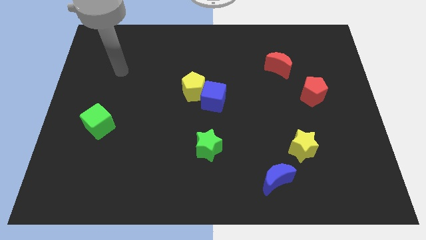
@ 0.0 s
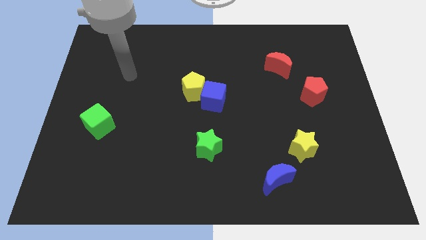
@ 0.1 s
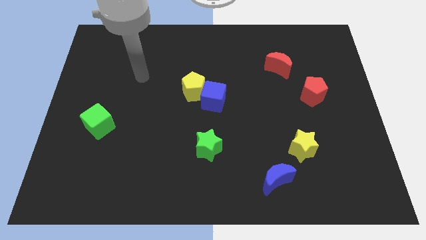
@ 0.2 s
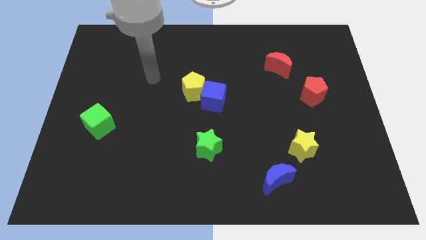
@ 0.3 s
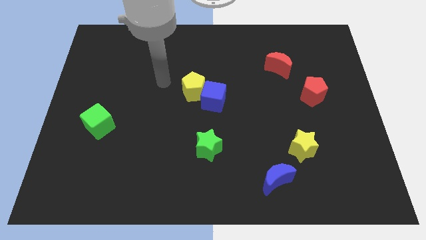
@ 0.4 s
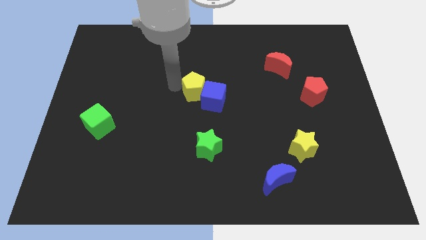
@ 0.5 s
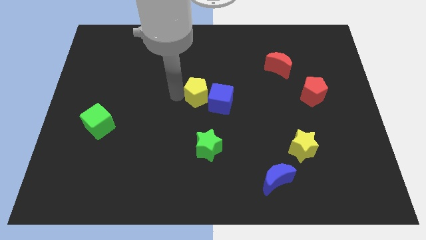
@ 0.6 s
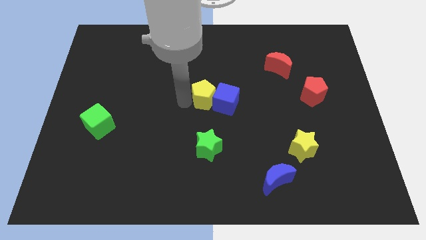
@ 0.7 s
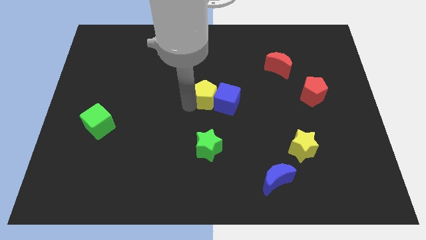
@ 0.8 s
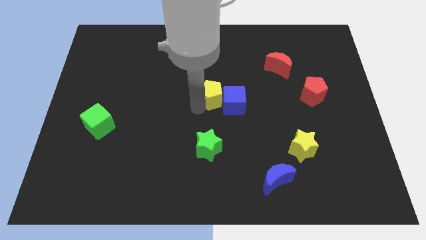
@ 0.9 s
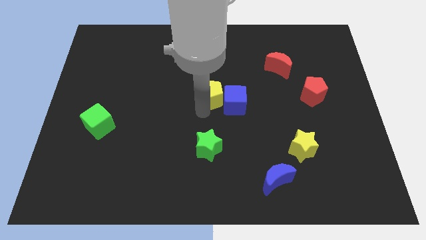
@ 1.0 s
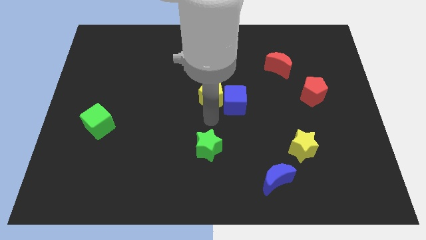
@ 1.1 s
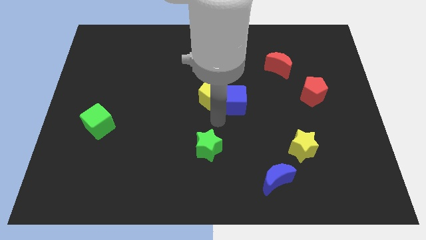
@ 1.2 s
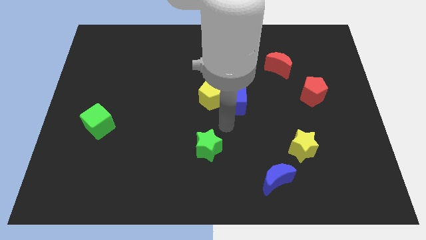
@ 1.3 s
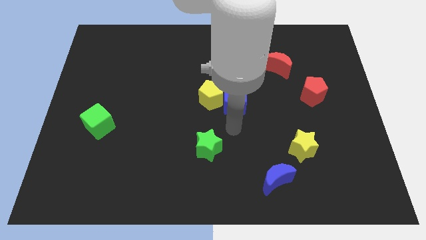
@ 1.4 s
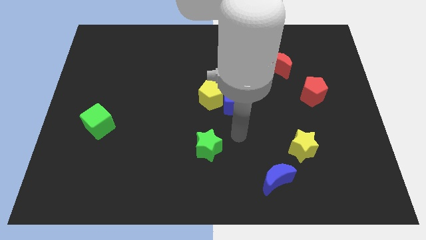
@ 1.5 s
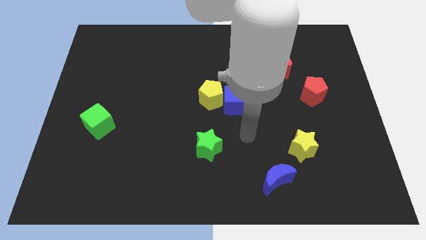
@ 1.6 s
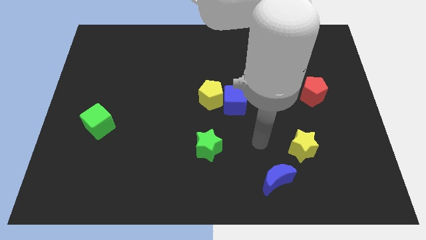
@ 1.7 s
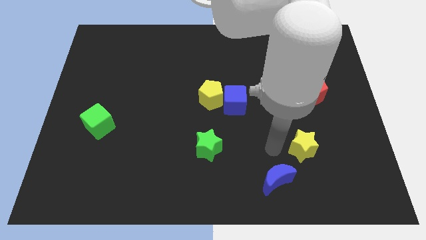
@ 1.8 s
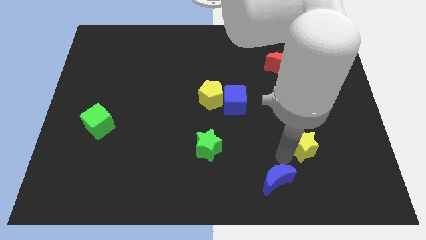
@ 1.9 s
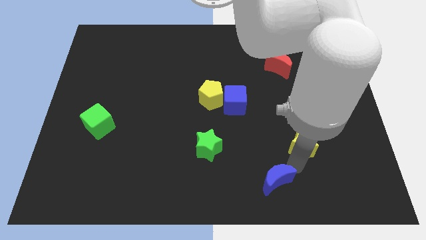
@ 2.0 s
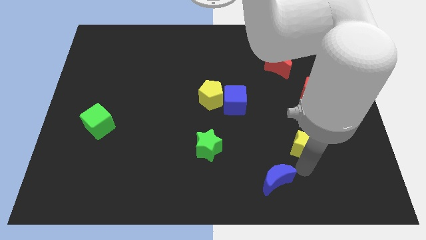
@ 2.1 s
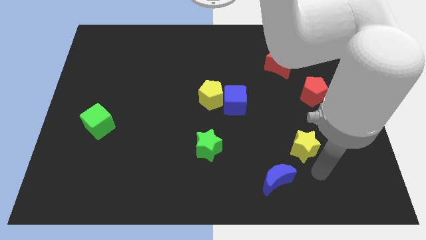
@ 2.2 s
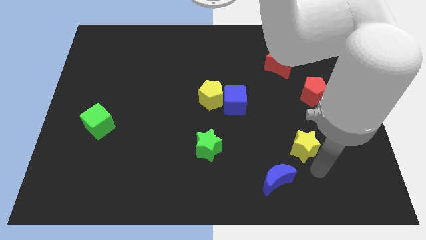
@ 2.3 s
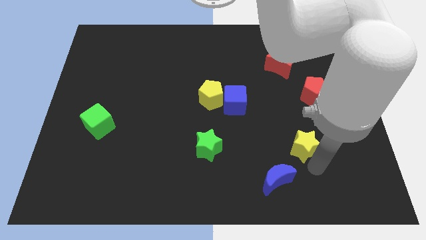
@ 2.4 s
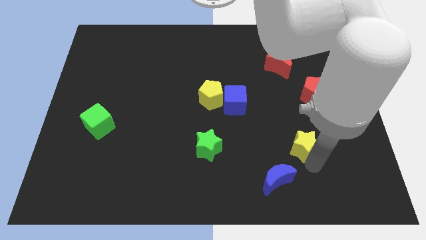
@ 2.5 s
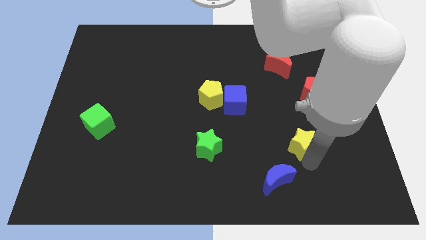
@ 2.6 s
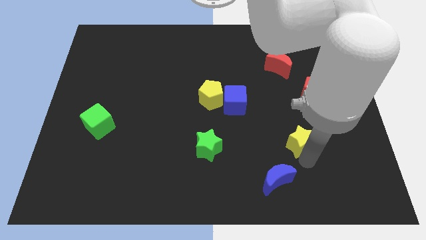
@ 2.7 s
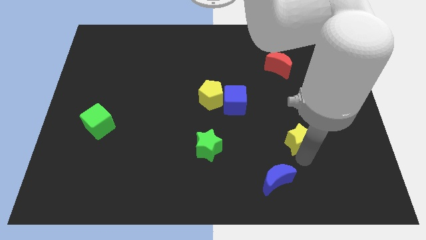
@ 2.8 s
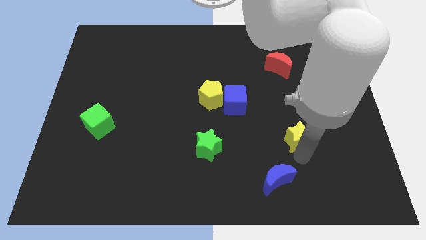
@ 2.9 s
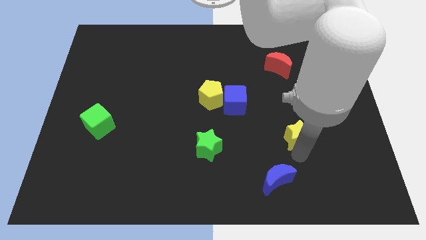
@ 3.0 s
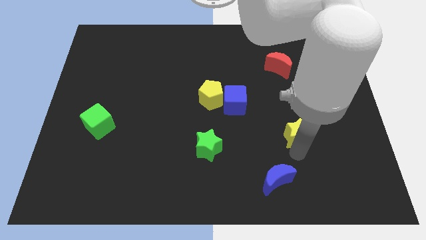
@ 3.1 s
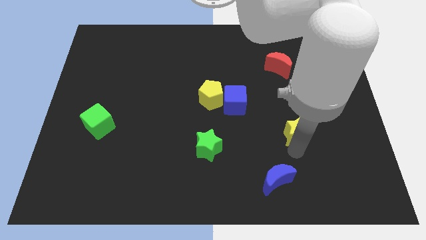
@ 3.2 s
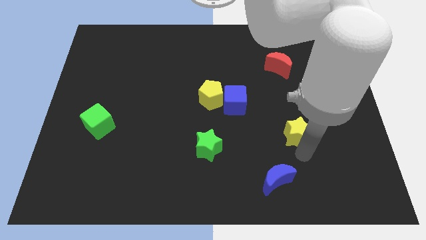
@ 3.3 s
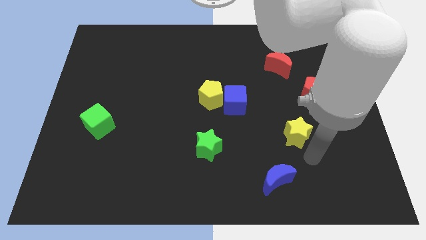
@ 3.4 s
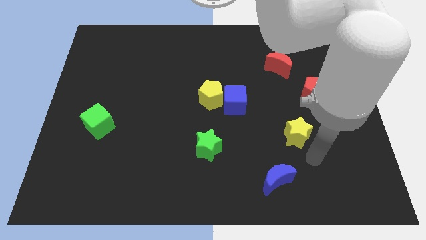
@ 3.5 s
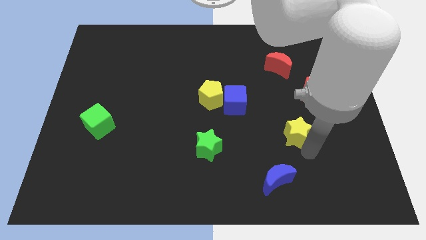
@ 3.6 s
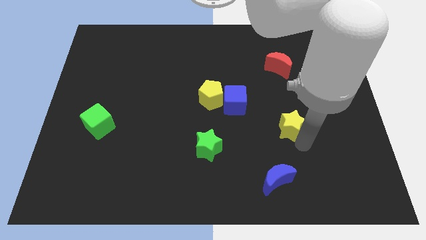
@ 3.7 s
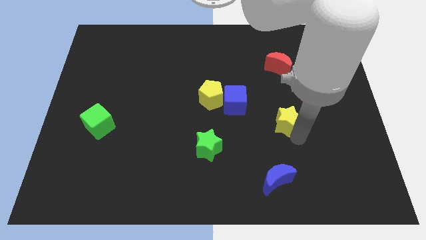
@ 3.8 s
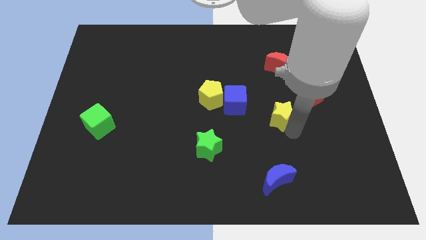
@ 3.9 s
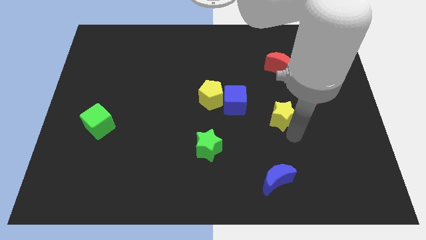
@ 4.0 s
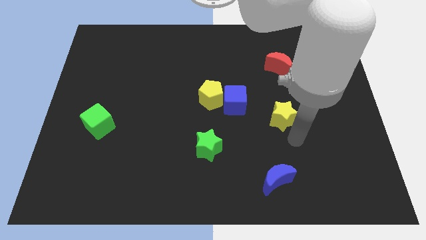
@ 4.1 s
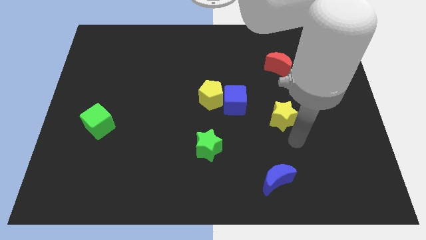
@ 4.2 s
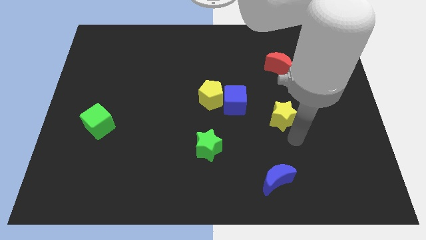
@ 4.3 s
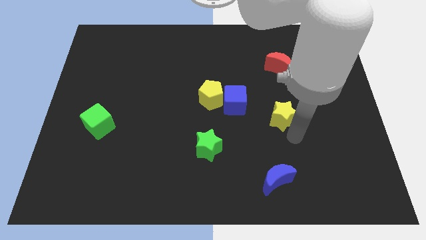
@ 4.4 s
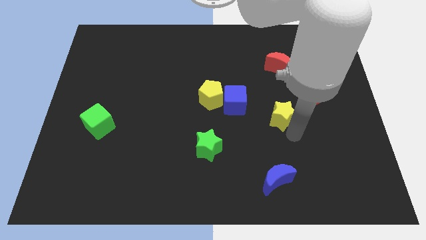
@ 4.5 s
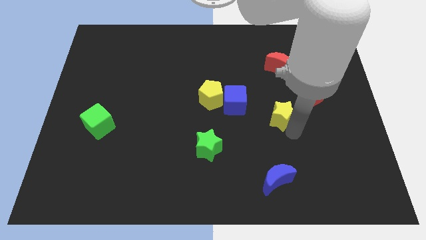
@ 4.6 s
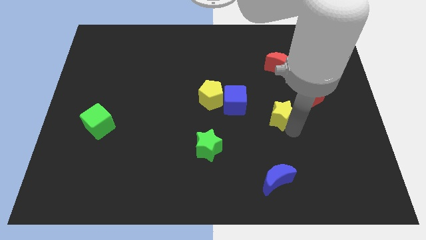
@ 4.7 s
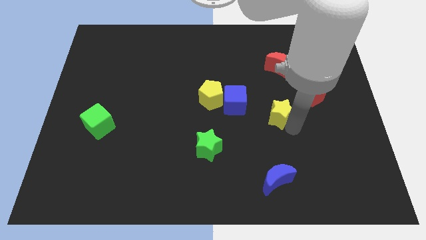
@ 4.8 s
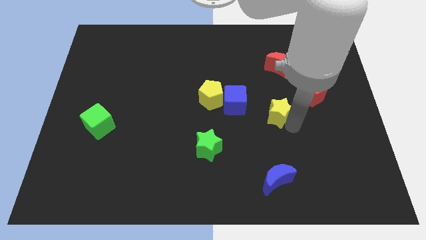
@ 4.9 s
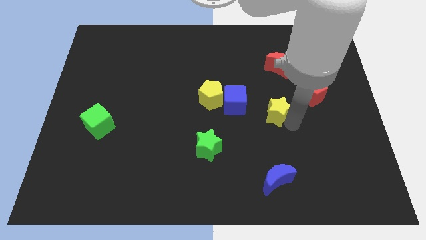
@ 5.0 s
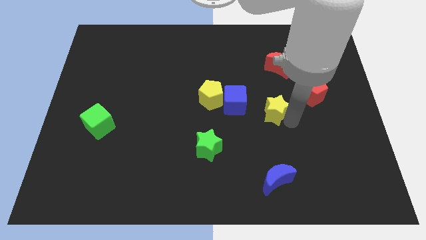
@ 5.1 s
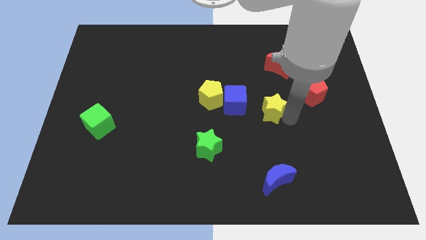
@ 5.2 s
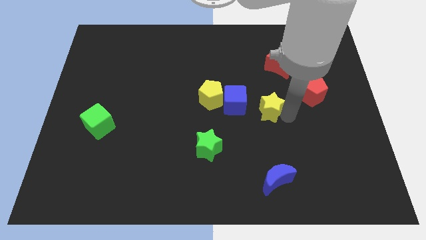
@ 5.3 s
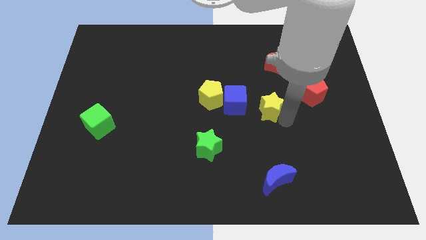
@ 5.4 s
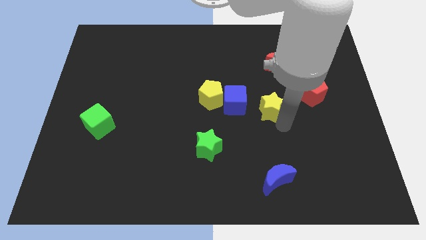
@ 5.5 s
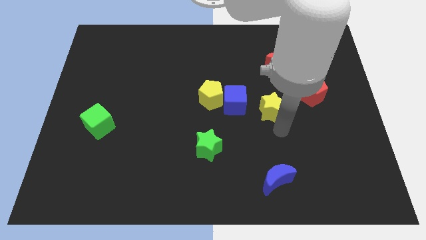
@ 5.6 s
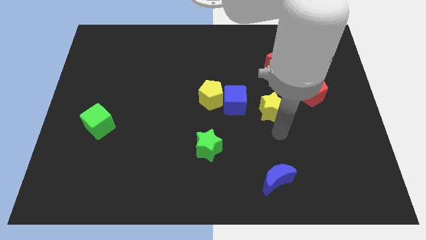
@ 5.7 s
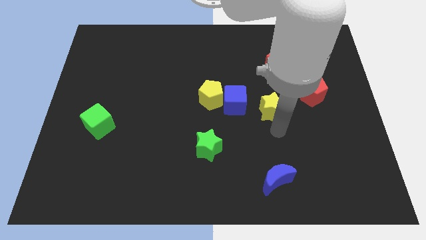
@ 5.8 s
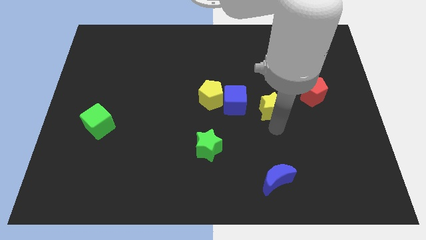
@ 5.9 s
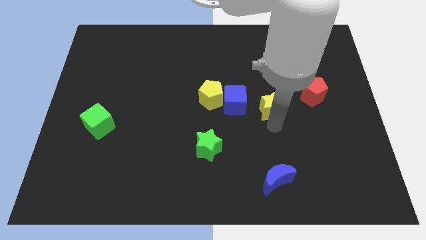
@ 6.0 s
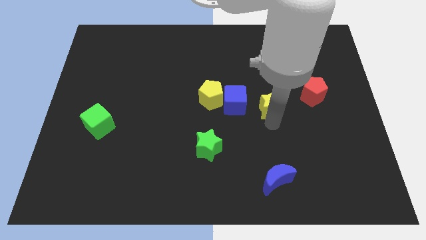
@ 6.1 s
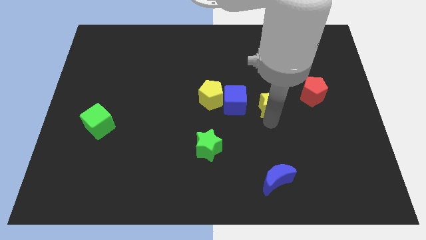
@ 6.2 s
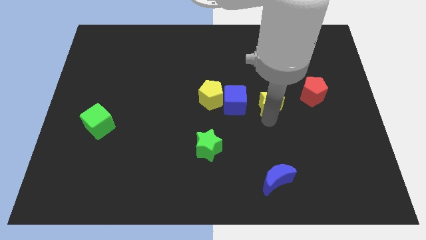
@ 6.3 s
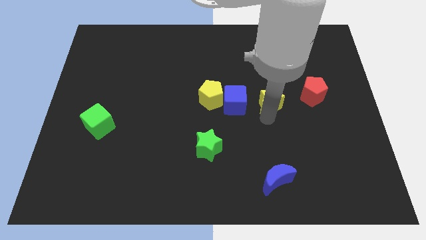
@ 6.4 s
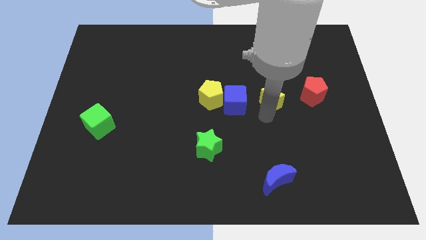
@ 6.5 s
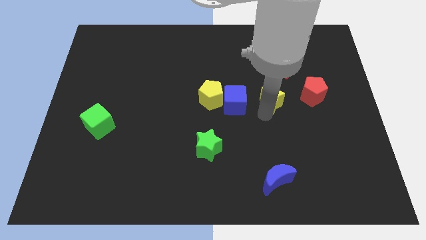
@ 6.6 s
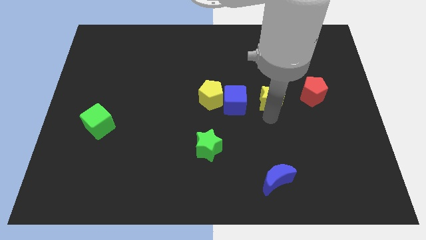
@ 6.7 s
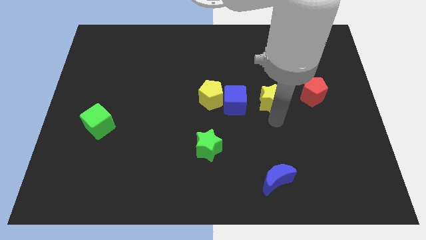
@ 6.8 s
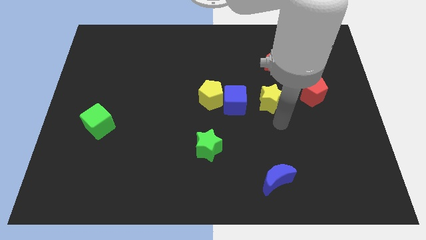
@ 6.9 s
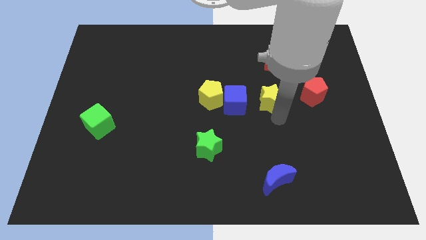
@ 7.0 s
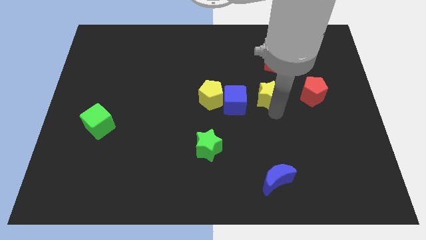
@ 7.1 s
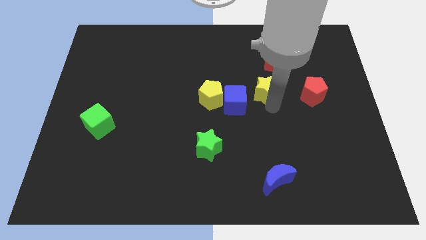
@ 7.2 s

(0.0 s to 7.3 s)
put the yellow star diagonally down and to the left of the red moon
